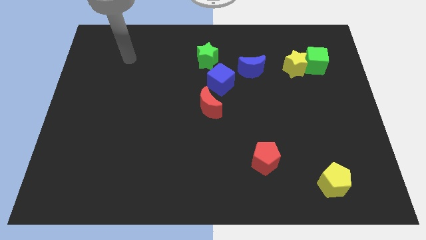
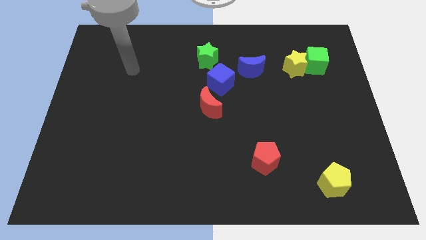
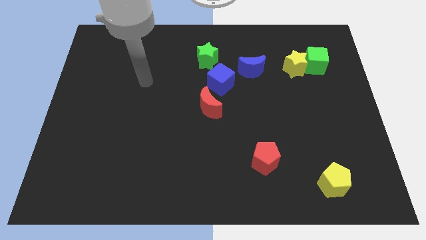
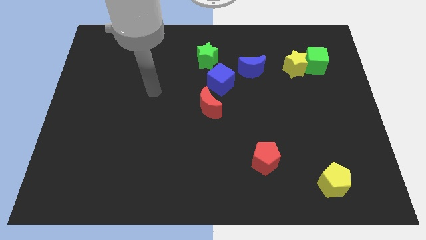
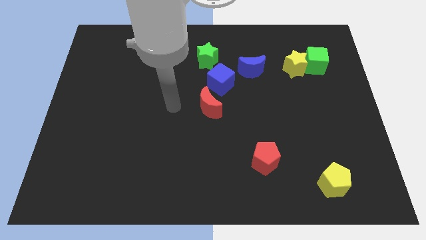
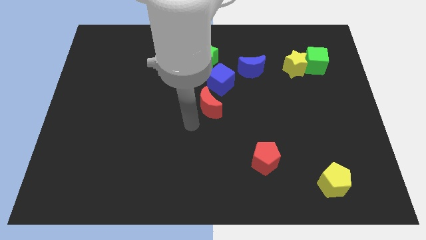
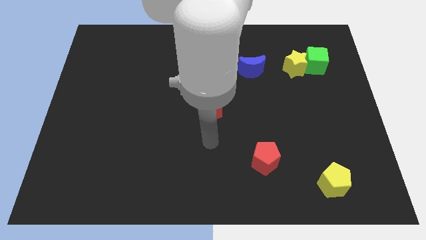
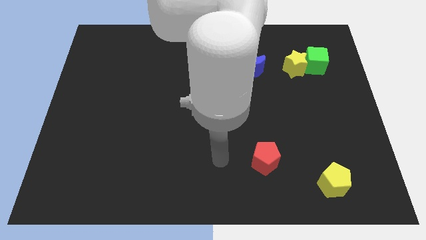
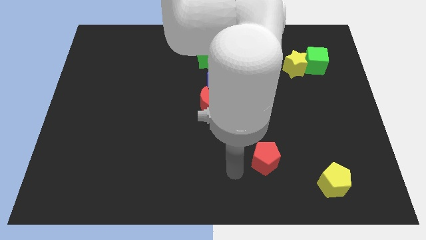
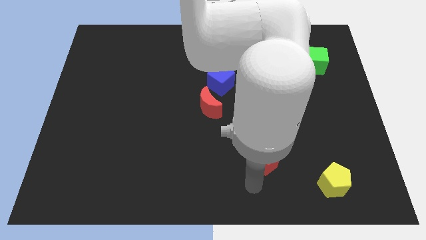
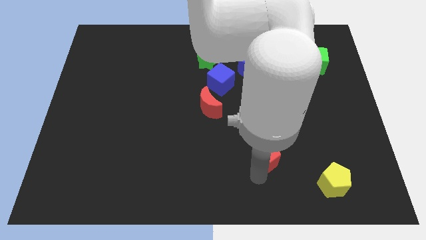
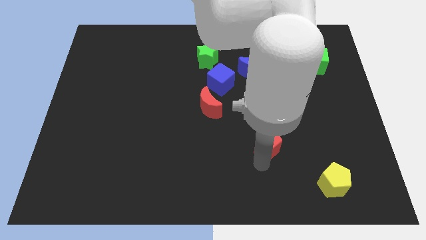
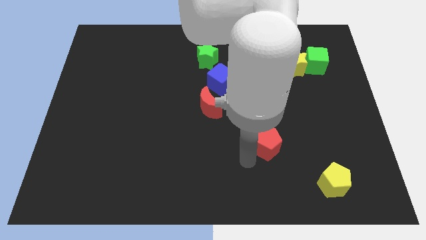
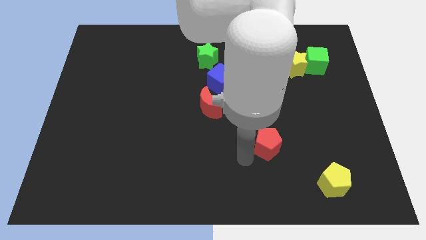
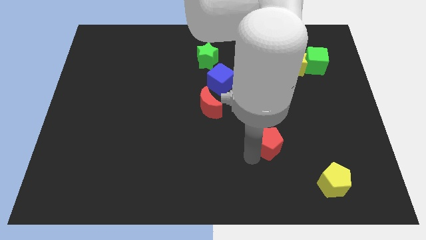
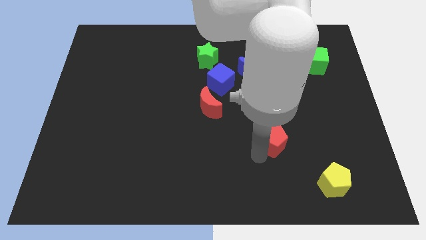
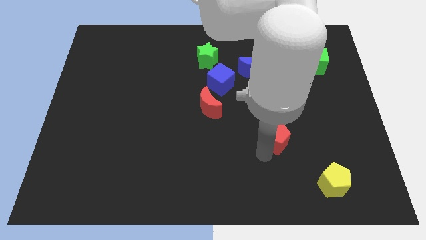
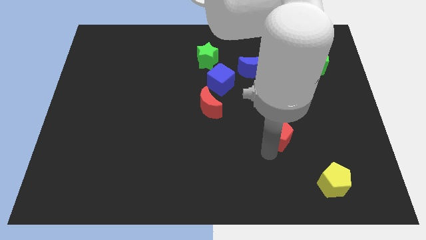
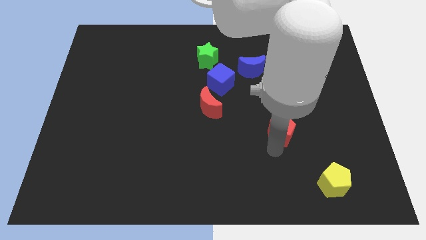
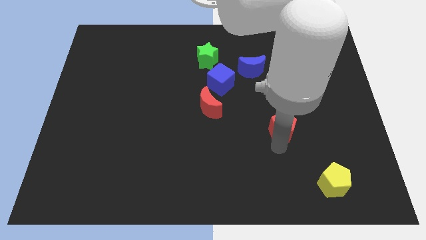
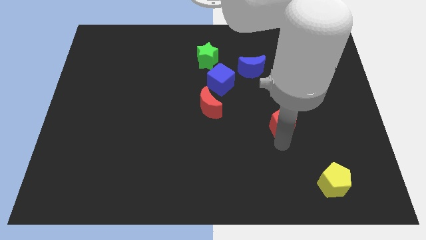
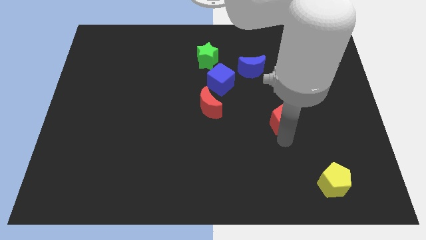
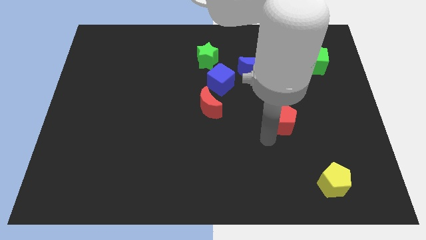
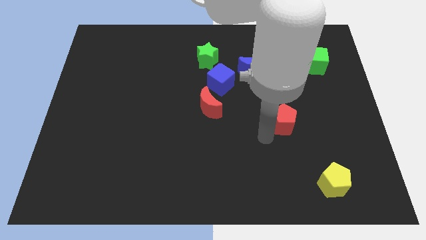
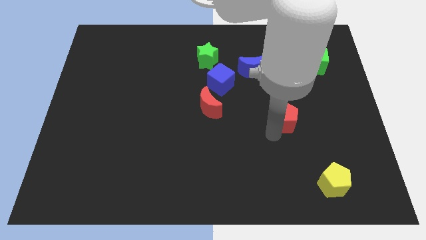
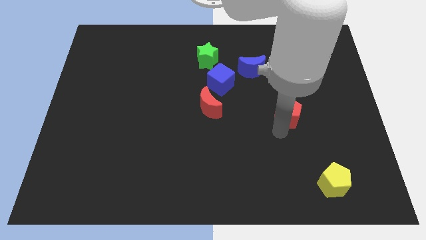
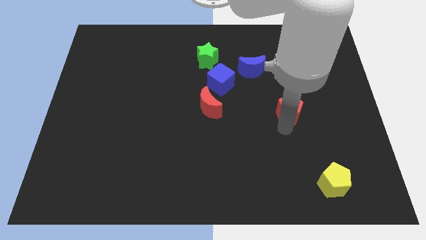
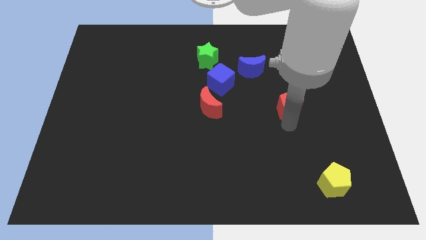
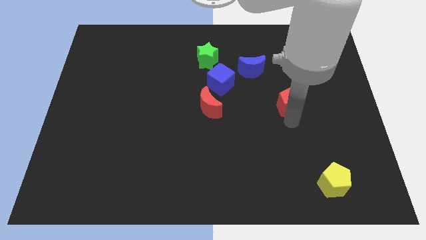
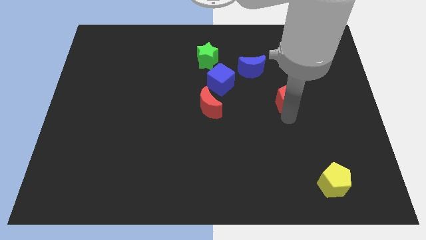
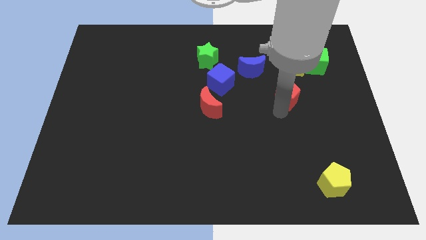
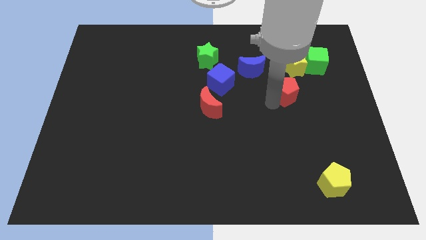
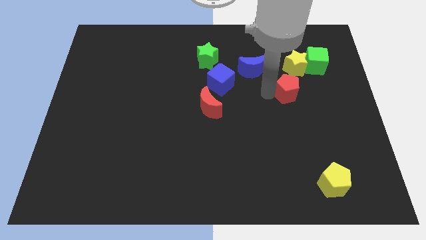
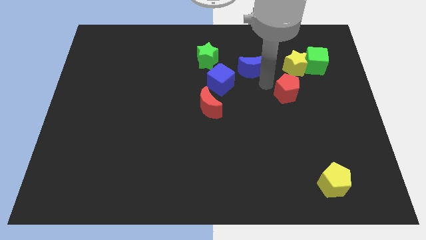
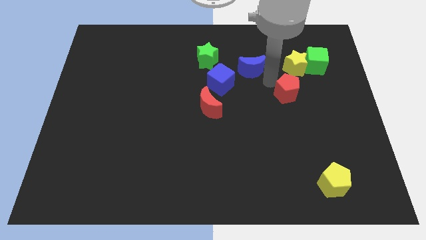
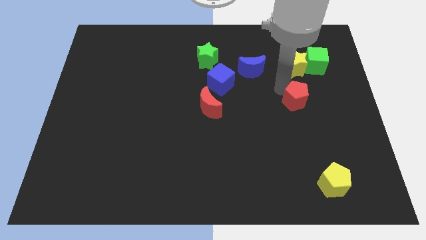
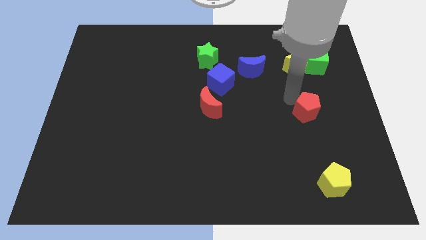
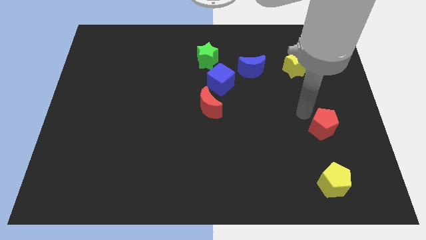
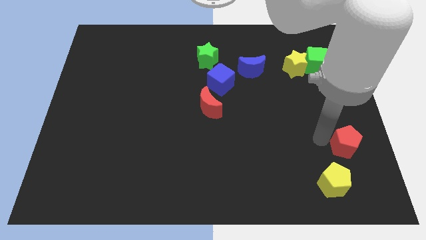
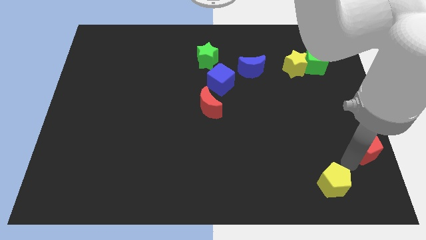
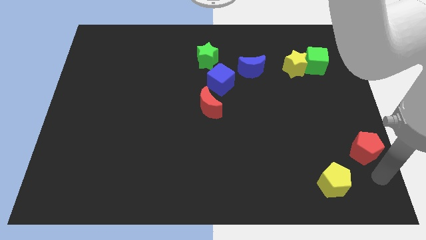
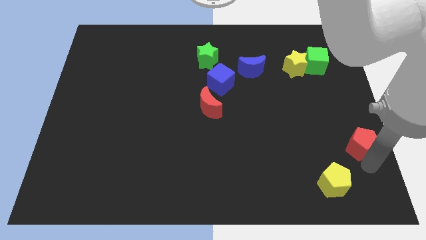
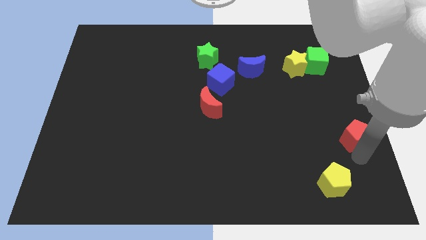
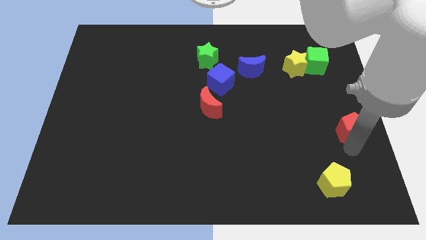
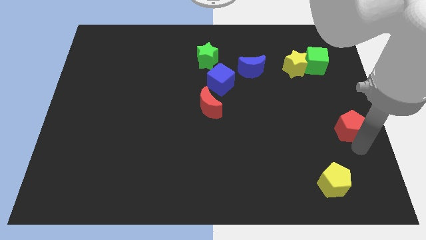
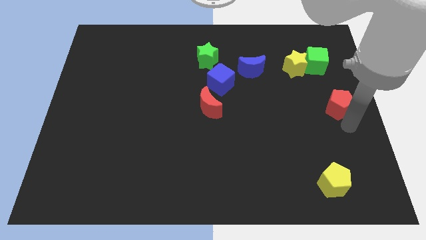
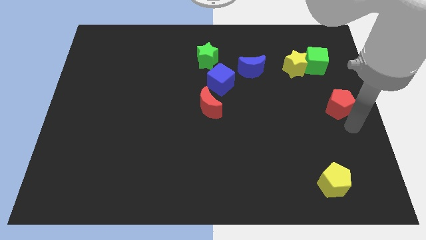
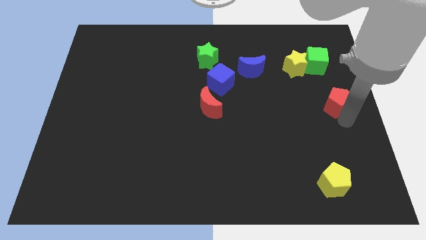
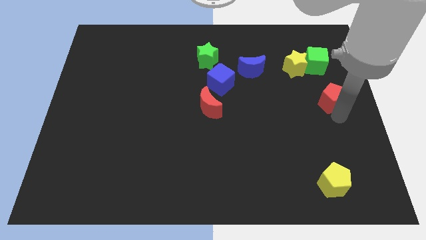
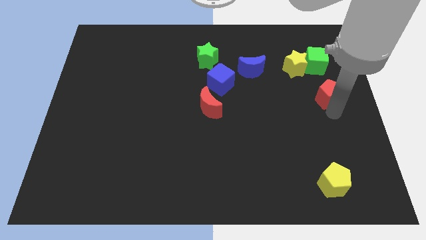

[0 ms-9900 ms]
slide the red pentagon to the bottom right of the yellow star

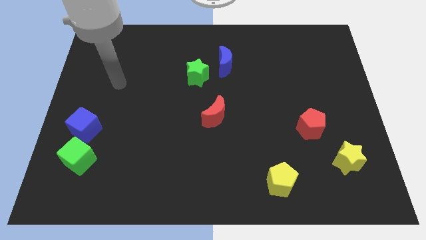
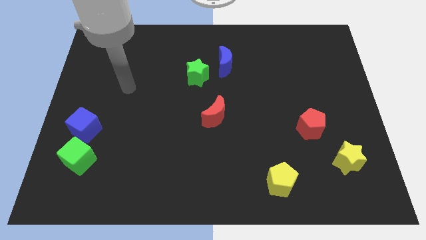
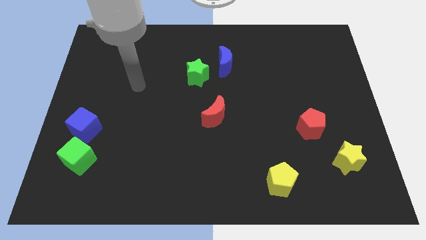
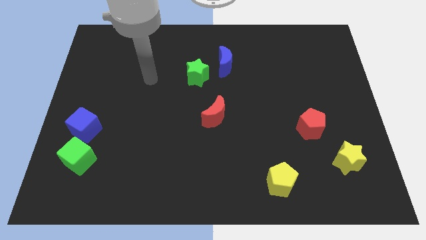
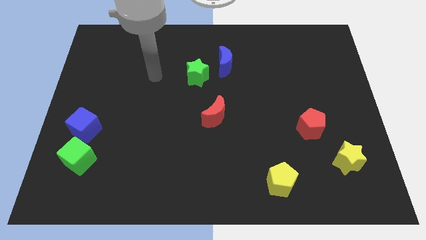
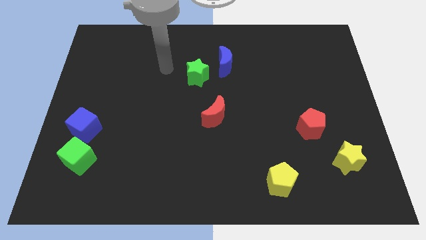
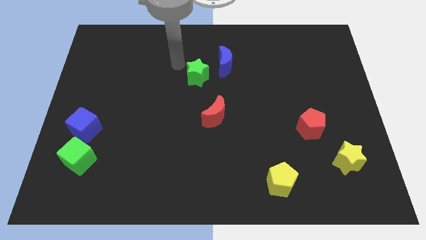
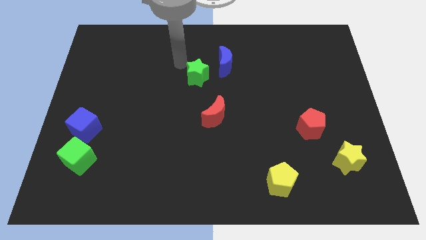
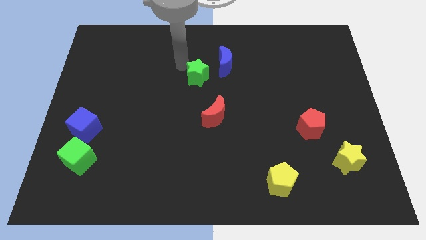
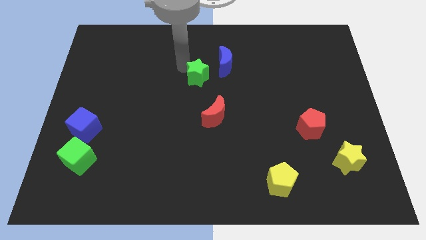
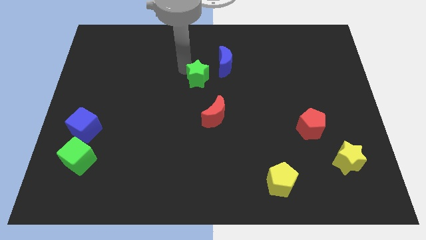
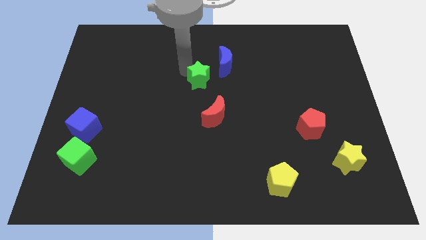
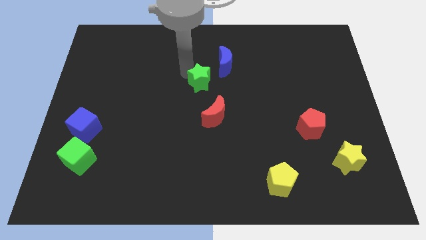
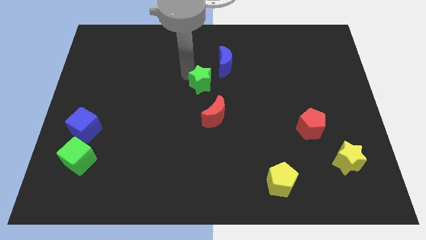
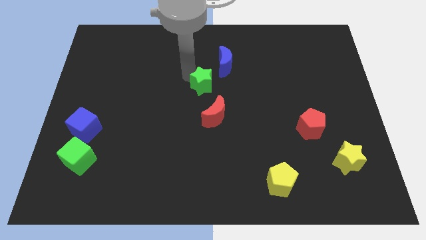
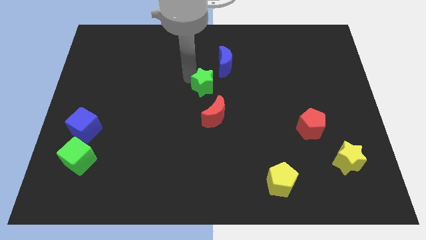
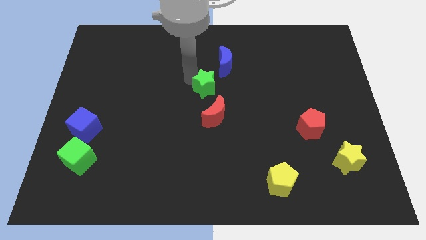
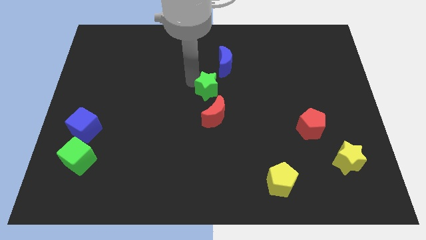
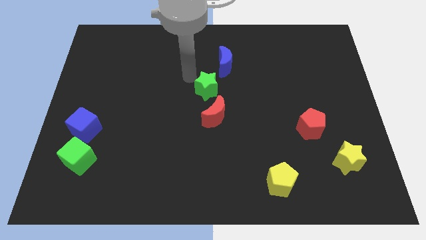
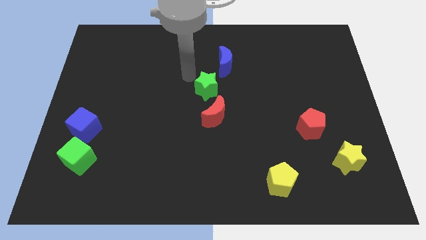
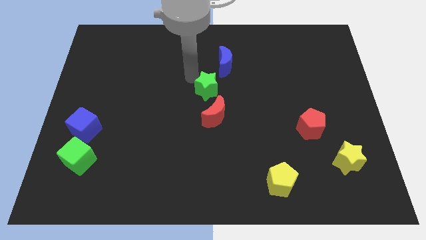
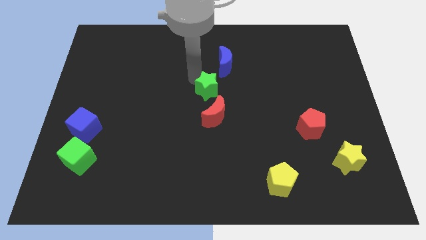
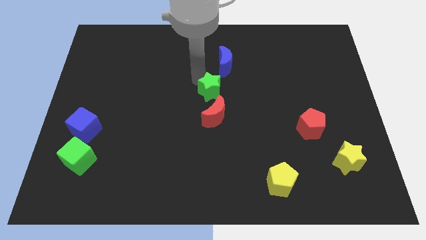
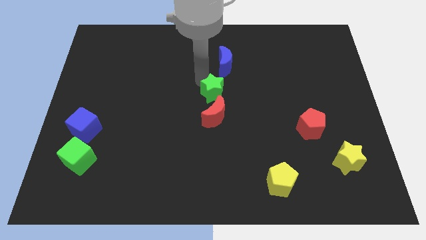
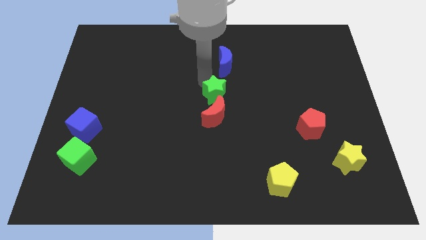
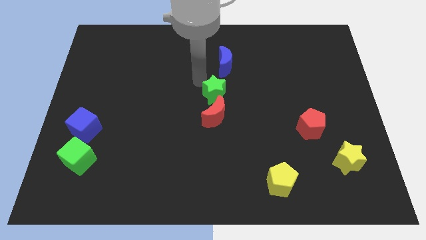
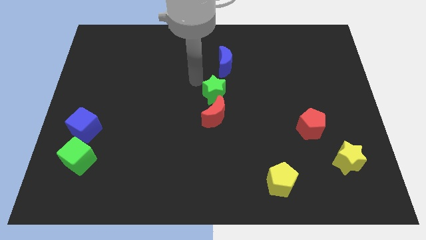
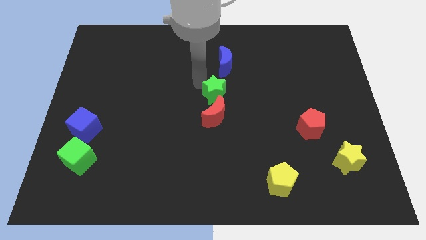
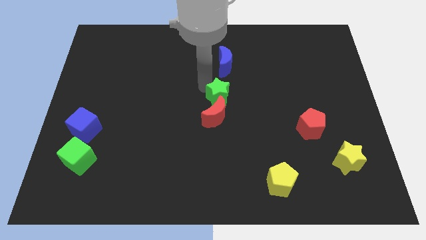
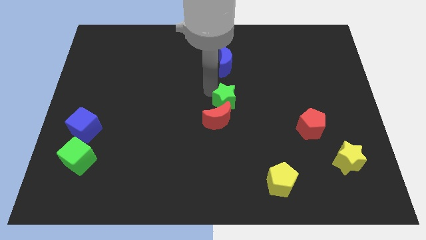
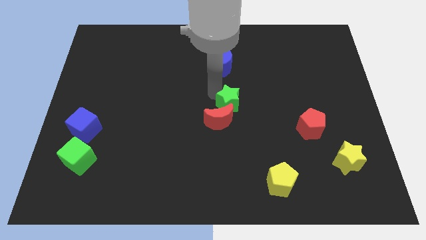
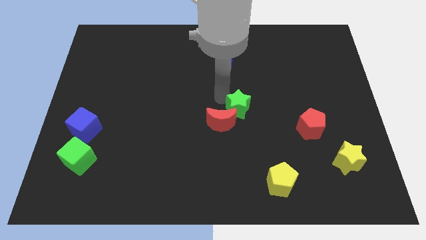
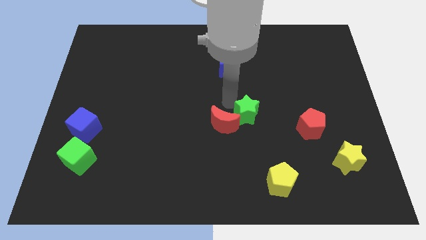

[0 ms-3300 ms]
slide the green star left of the red pentagon
